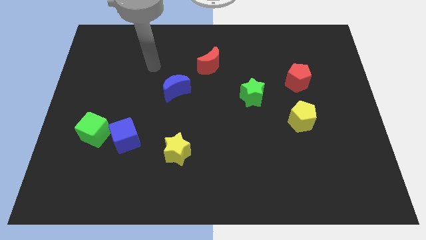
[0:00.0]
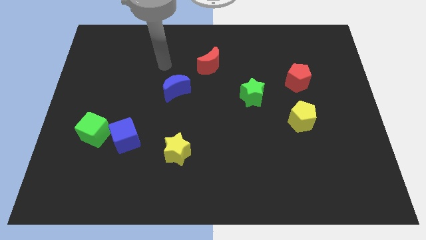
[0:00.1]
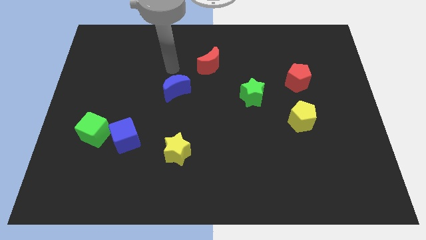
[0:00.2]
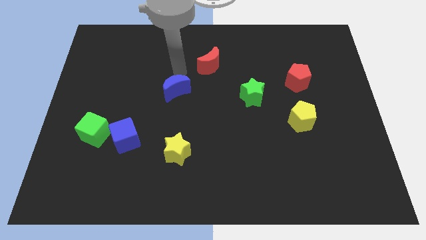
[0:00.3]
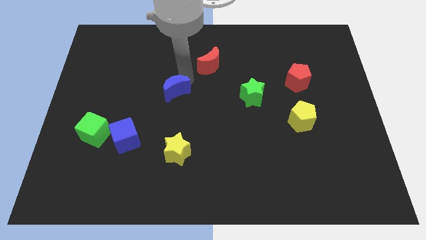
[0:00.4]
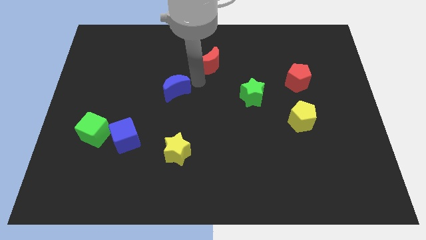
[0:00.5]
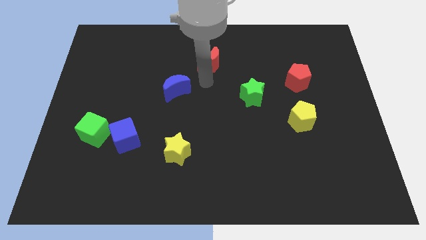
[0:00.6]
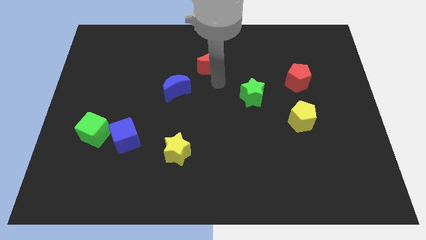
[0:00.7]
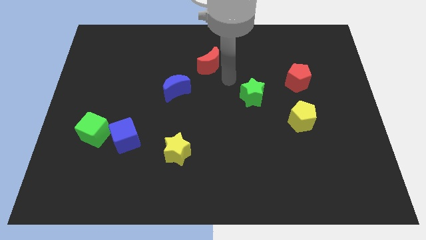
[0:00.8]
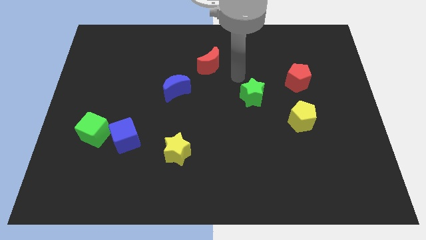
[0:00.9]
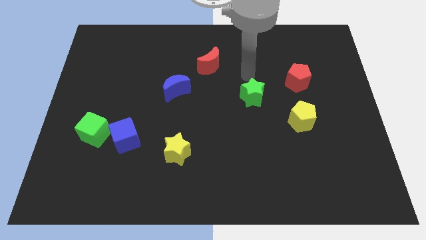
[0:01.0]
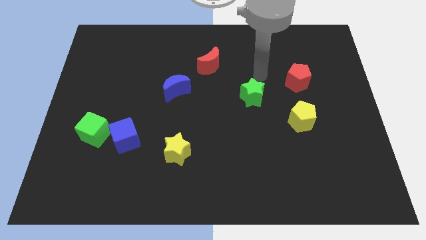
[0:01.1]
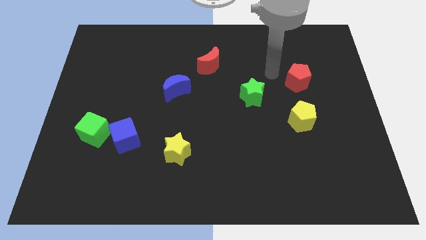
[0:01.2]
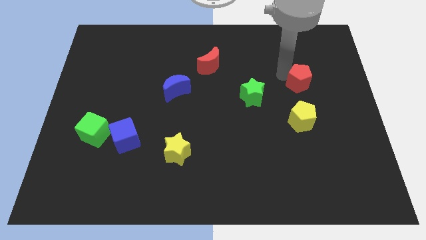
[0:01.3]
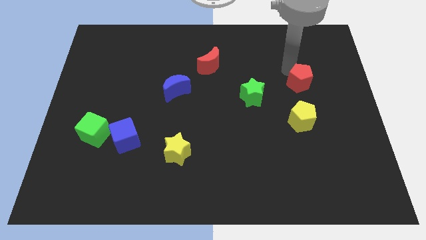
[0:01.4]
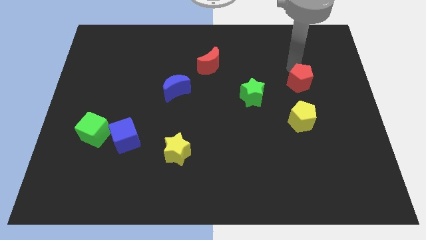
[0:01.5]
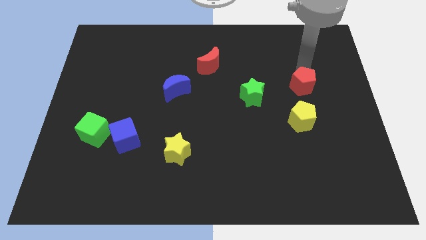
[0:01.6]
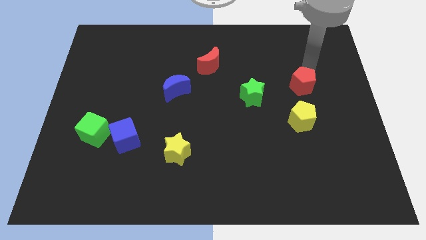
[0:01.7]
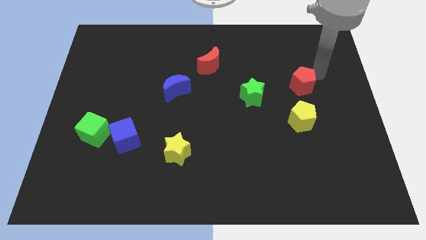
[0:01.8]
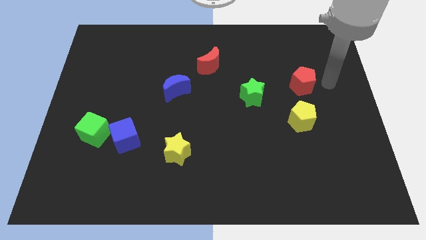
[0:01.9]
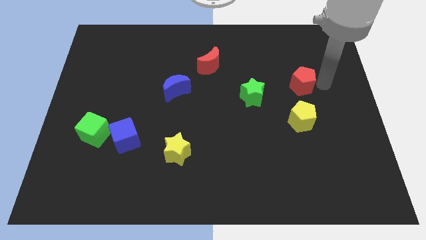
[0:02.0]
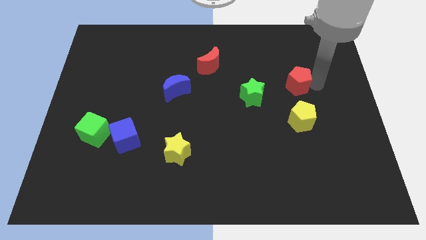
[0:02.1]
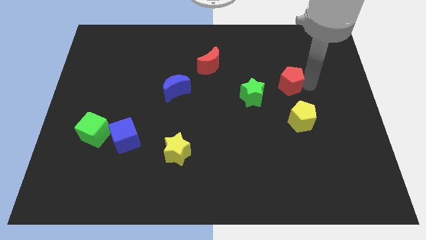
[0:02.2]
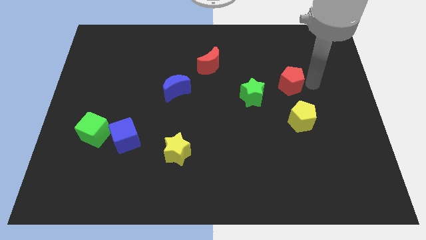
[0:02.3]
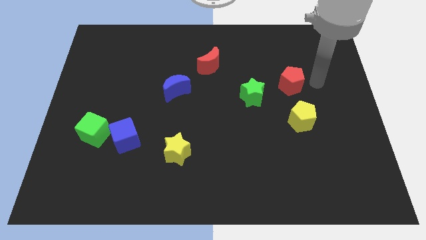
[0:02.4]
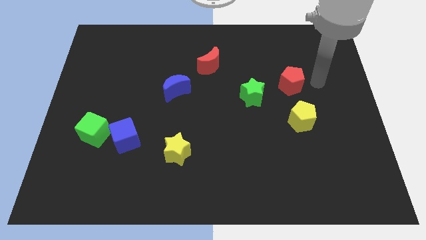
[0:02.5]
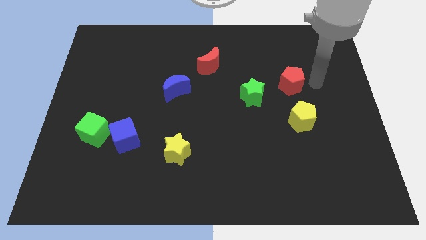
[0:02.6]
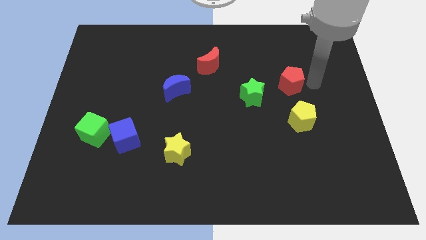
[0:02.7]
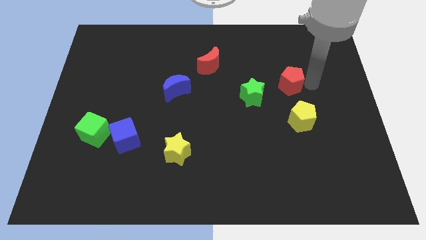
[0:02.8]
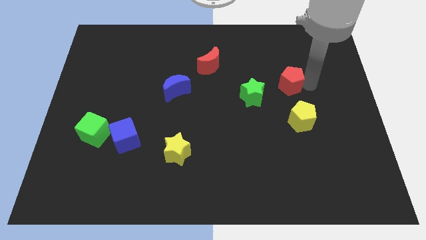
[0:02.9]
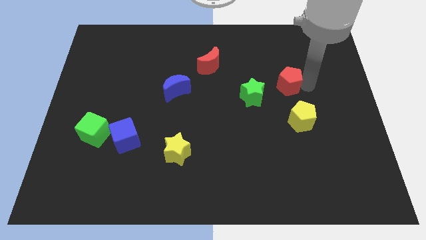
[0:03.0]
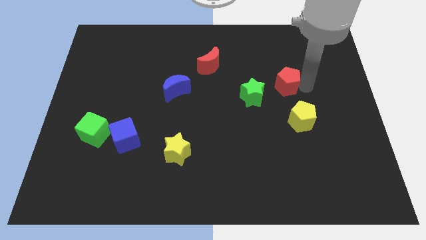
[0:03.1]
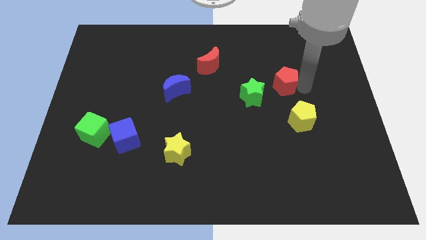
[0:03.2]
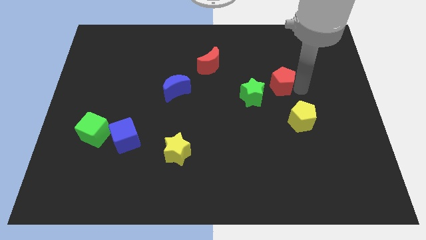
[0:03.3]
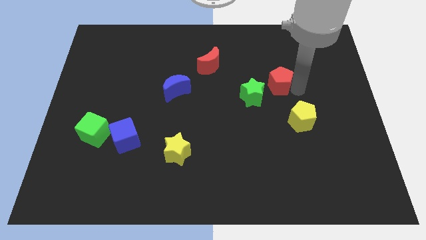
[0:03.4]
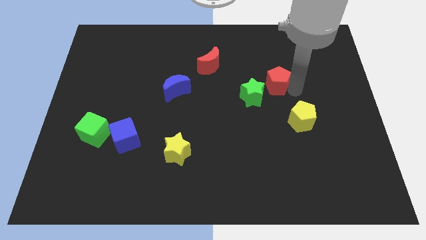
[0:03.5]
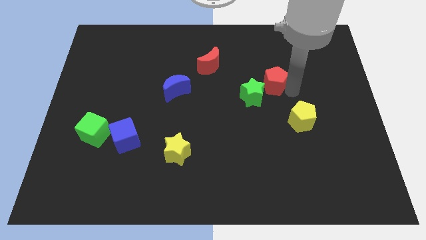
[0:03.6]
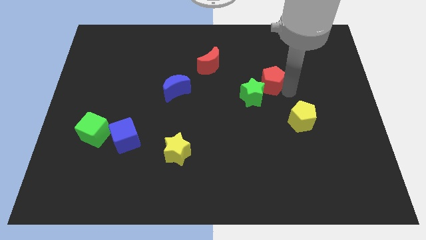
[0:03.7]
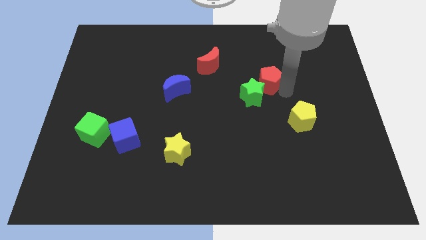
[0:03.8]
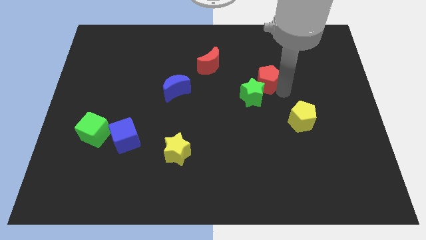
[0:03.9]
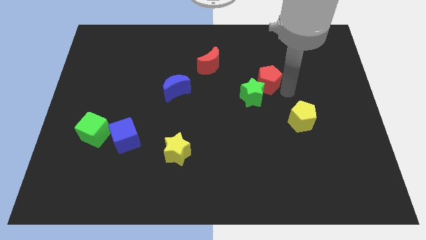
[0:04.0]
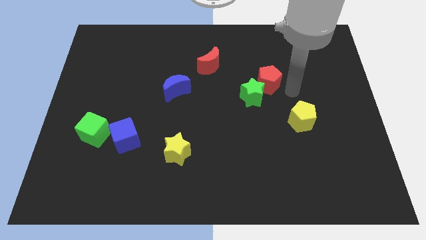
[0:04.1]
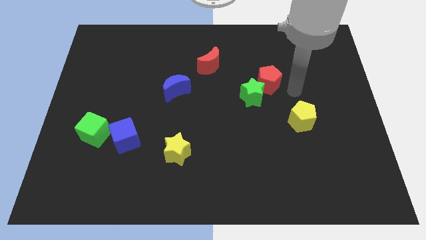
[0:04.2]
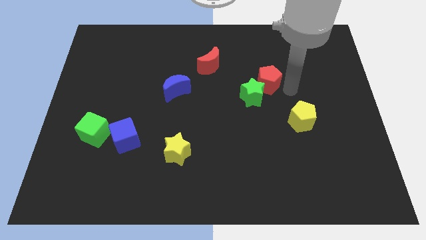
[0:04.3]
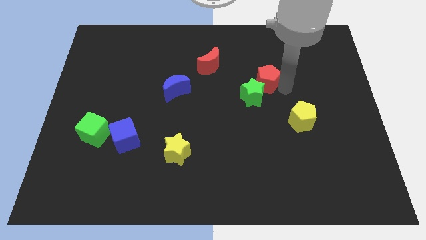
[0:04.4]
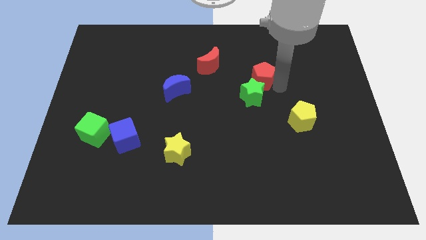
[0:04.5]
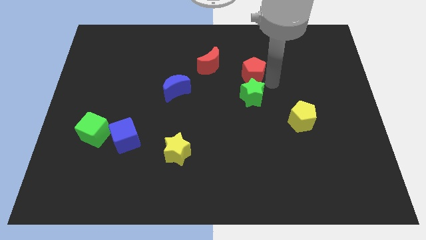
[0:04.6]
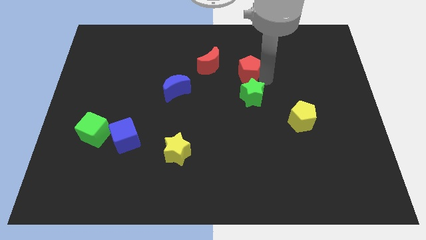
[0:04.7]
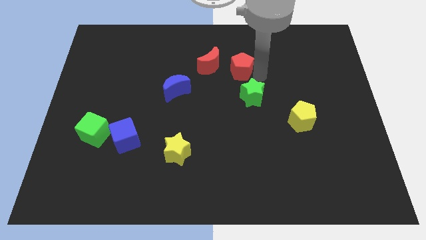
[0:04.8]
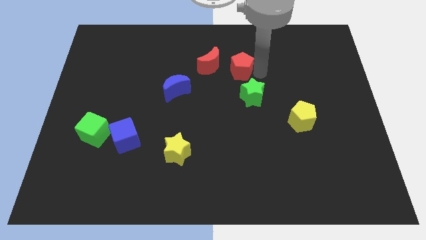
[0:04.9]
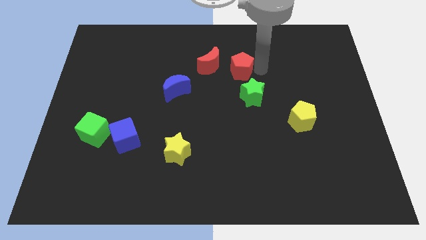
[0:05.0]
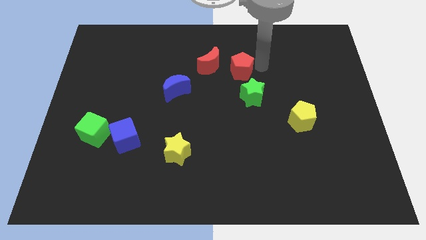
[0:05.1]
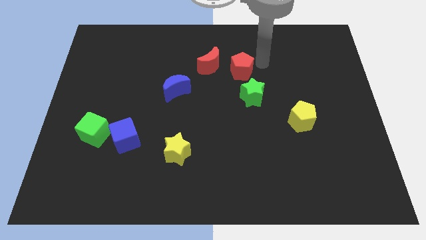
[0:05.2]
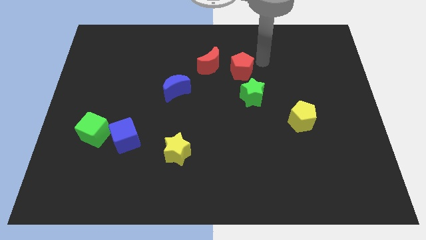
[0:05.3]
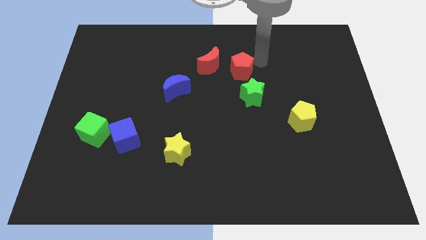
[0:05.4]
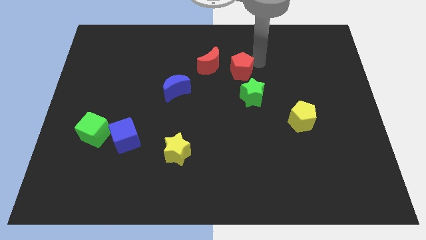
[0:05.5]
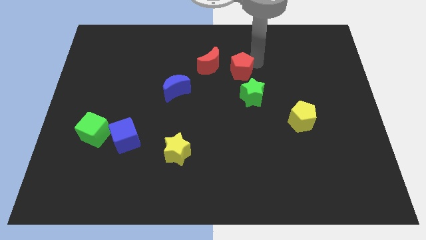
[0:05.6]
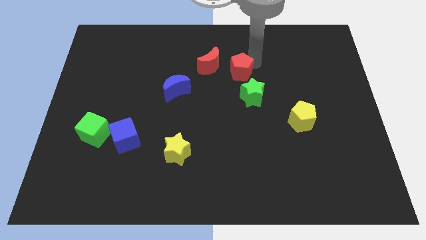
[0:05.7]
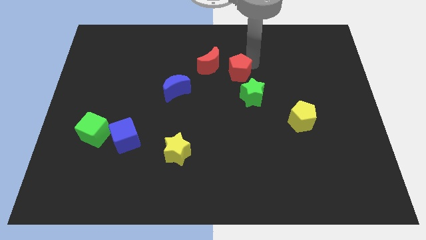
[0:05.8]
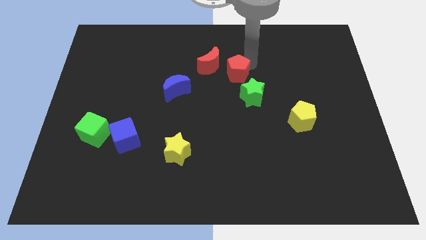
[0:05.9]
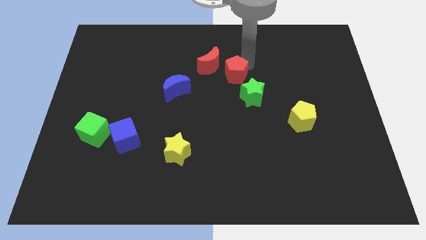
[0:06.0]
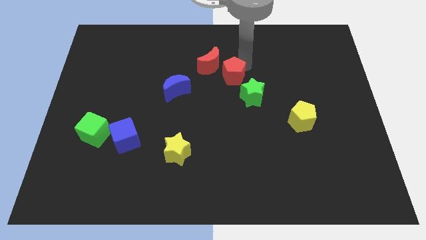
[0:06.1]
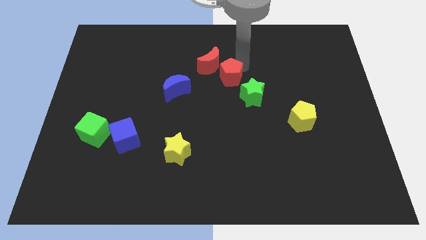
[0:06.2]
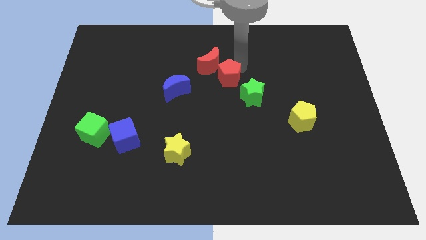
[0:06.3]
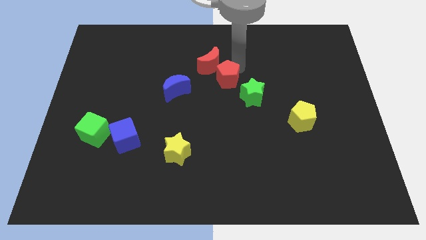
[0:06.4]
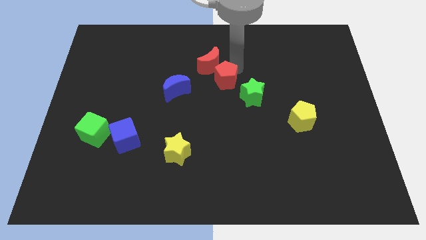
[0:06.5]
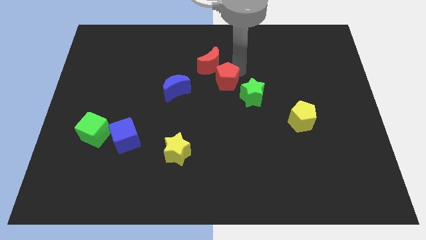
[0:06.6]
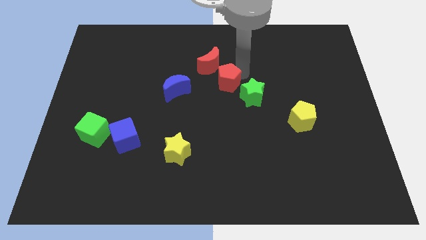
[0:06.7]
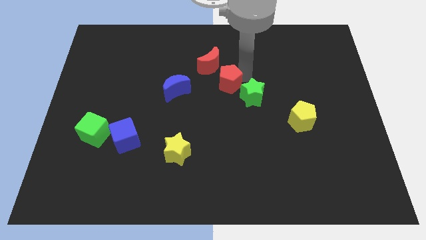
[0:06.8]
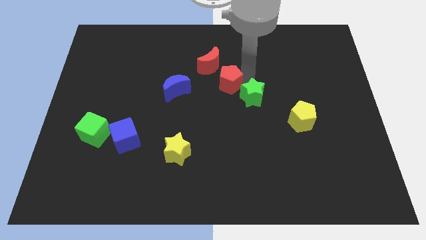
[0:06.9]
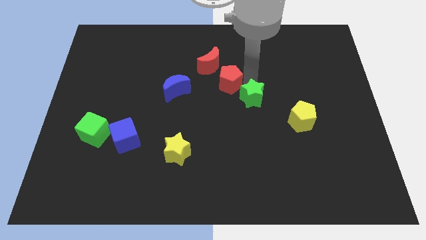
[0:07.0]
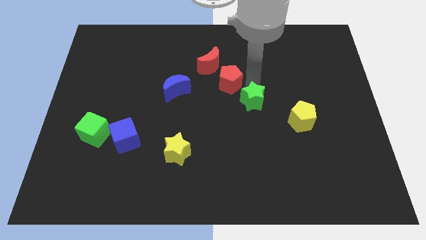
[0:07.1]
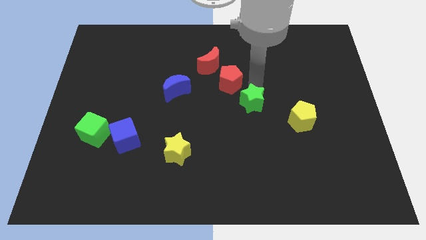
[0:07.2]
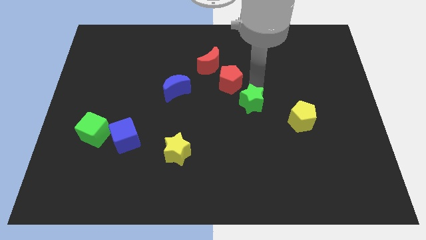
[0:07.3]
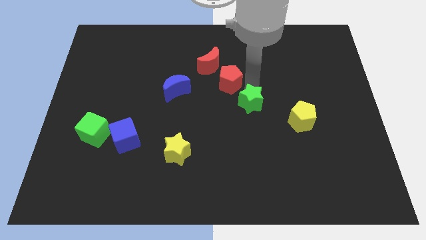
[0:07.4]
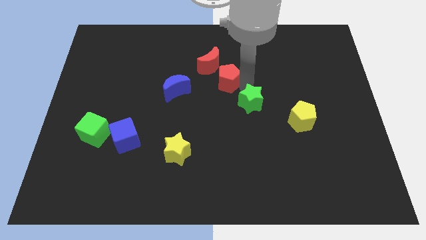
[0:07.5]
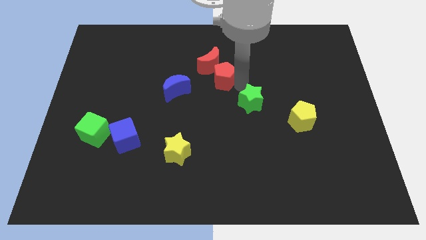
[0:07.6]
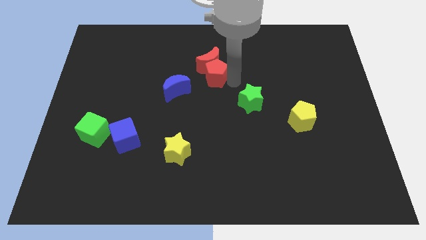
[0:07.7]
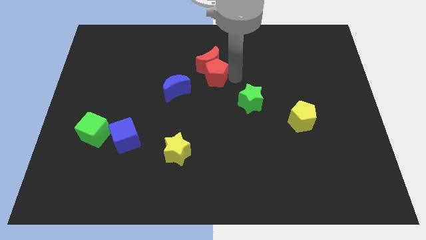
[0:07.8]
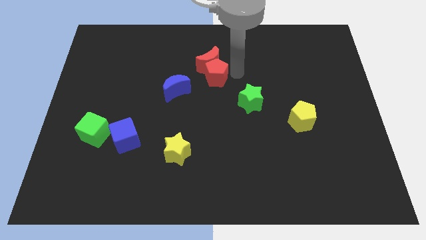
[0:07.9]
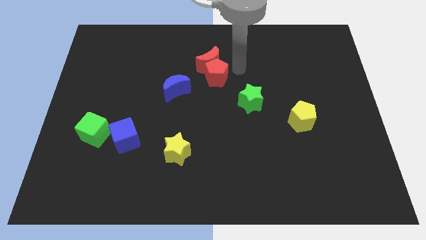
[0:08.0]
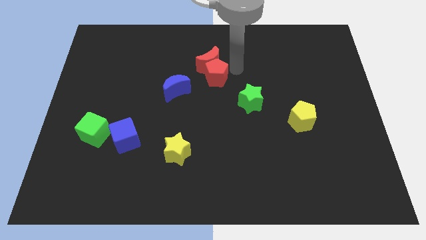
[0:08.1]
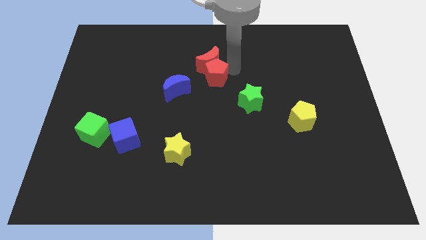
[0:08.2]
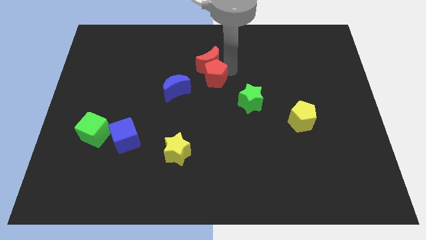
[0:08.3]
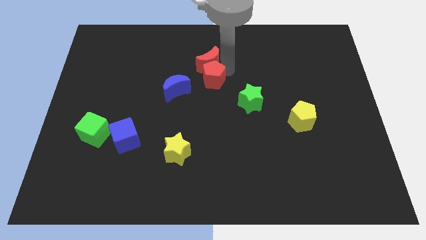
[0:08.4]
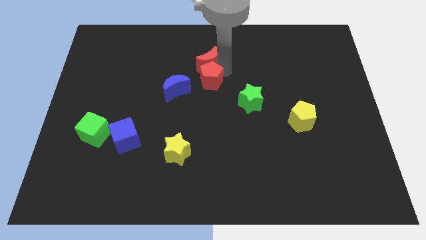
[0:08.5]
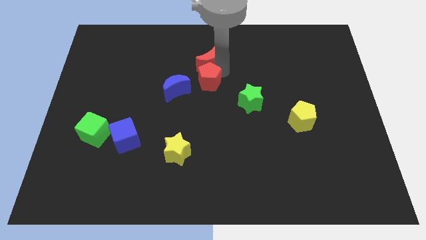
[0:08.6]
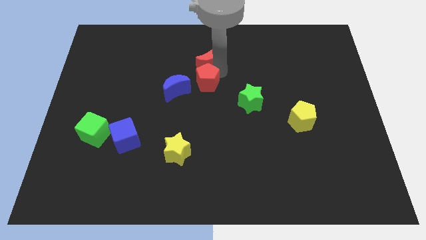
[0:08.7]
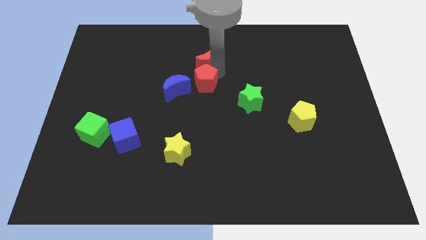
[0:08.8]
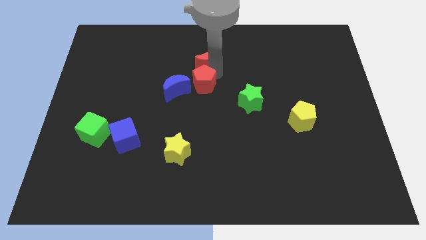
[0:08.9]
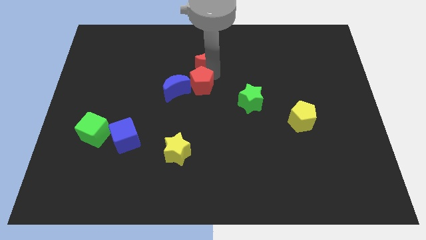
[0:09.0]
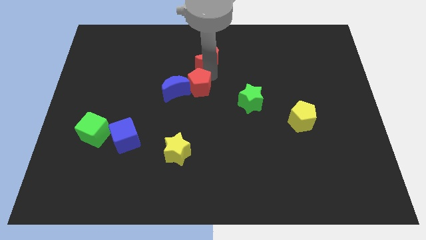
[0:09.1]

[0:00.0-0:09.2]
slide the red pentagon next to the blue moon
